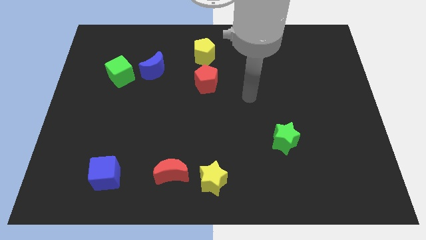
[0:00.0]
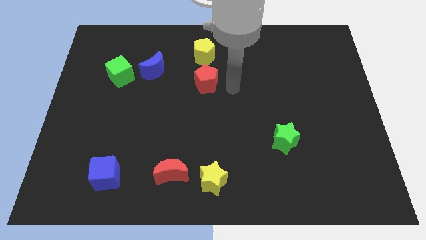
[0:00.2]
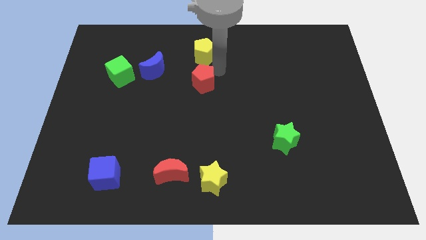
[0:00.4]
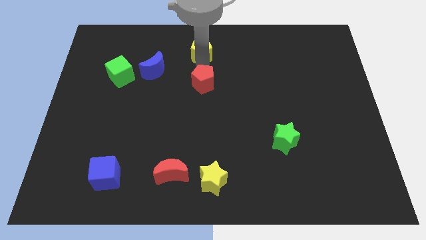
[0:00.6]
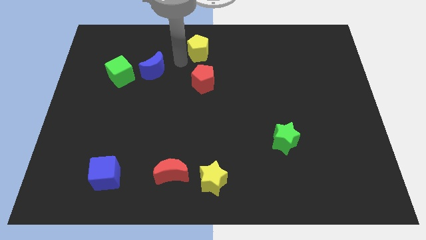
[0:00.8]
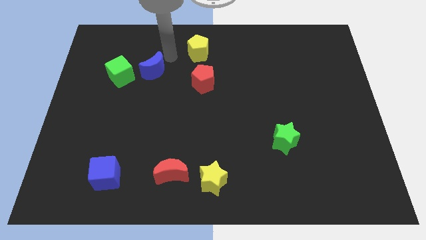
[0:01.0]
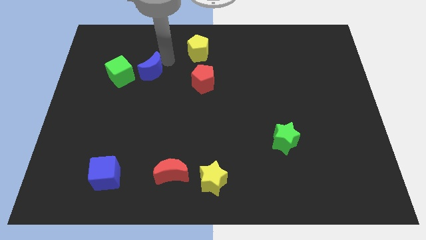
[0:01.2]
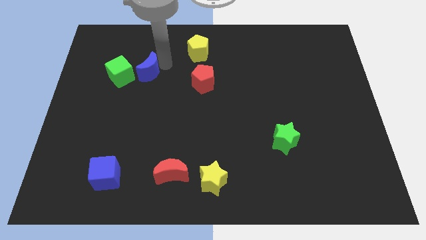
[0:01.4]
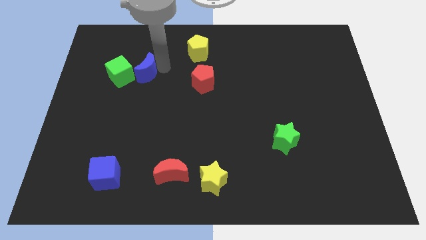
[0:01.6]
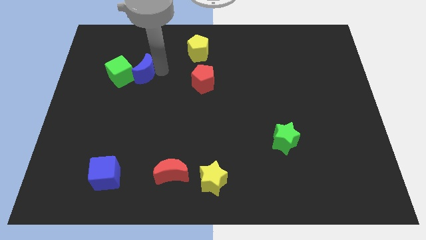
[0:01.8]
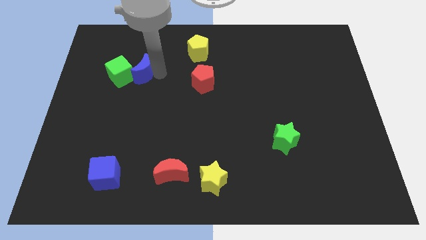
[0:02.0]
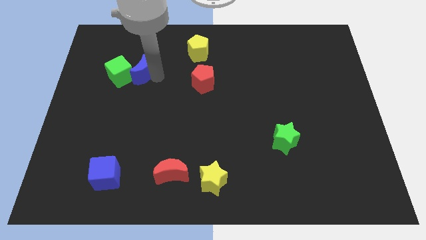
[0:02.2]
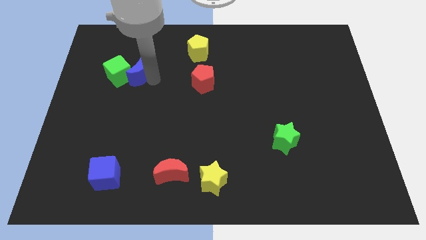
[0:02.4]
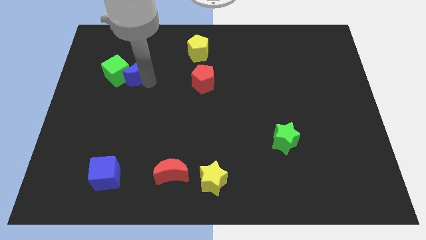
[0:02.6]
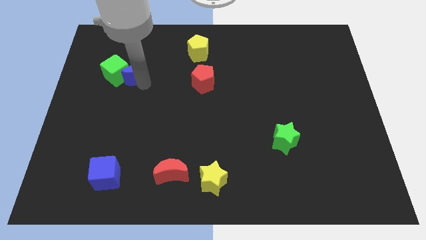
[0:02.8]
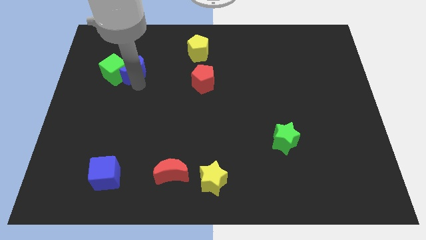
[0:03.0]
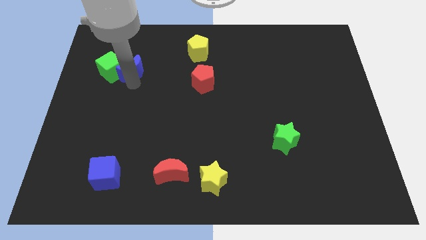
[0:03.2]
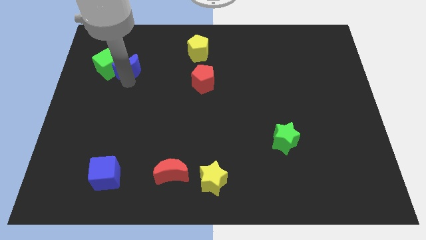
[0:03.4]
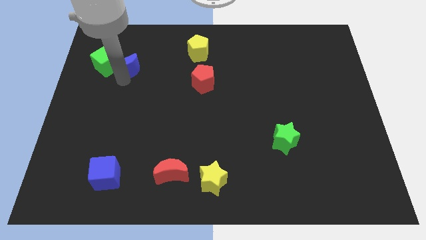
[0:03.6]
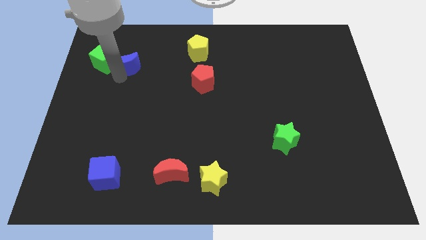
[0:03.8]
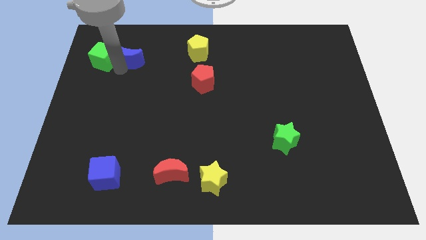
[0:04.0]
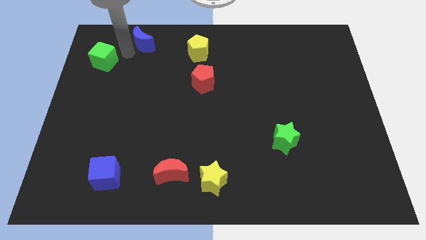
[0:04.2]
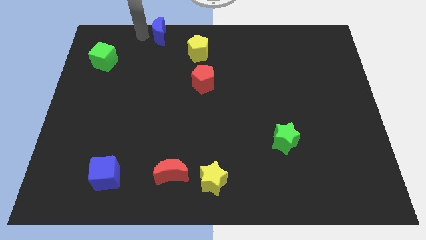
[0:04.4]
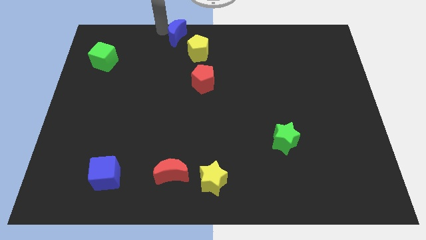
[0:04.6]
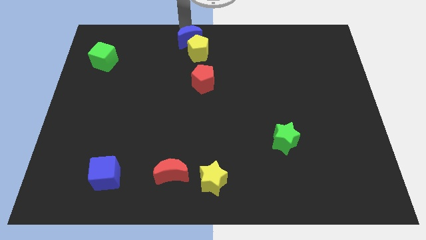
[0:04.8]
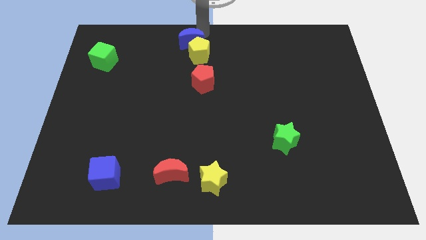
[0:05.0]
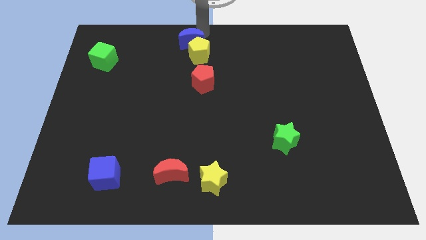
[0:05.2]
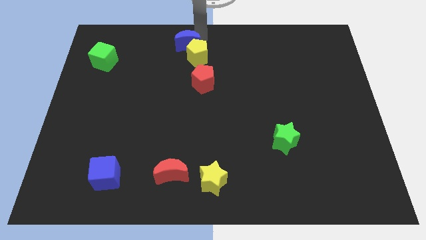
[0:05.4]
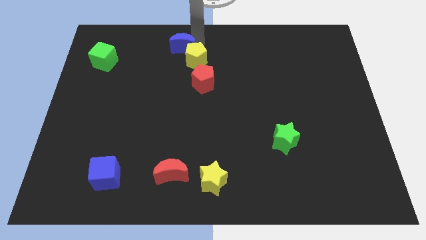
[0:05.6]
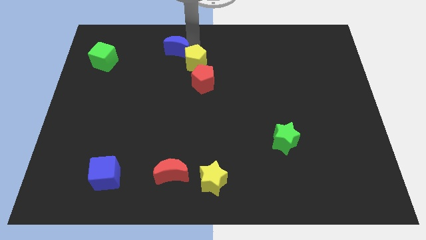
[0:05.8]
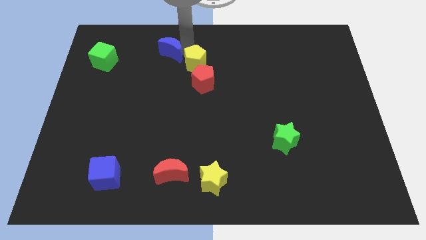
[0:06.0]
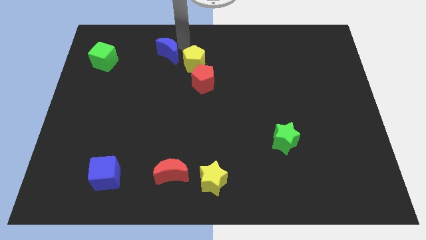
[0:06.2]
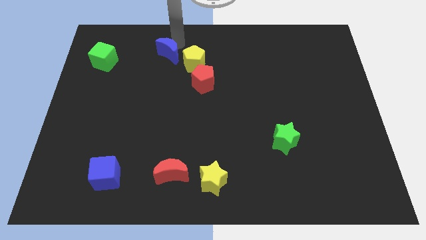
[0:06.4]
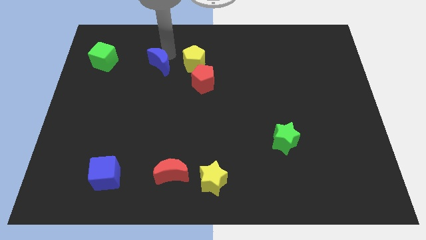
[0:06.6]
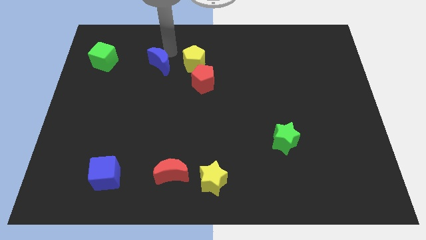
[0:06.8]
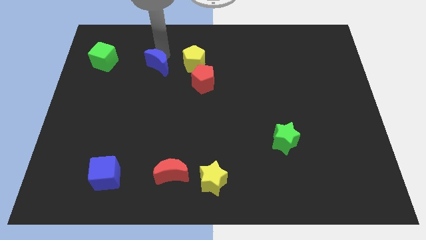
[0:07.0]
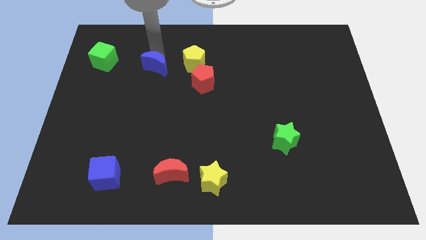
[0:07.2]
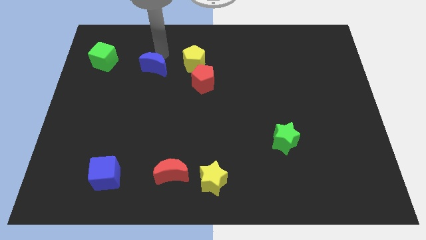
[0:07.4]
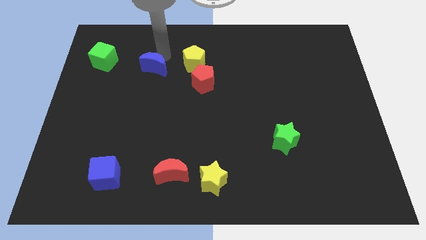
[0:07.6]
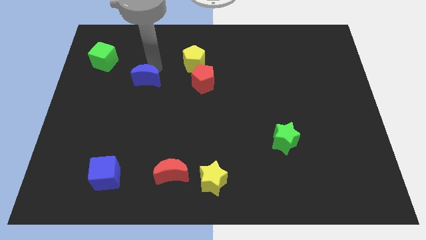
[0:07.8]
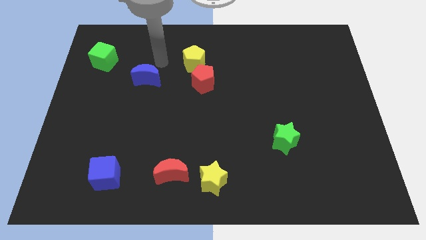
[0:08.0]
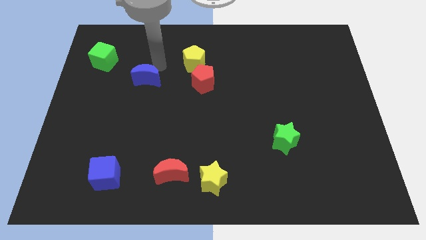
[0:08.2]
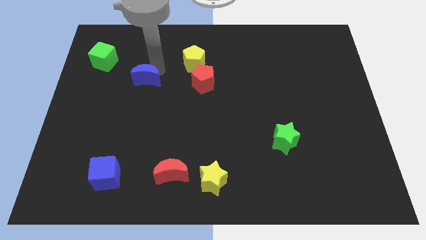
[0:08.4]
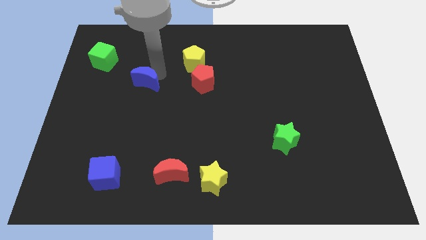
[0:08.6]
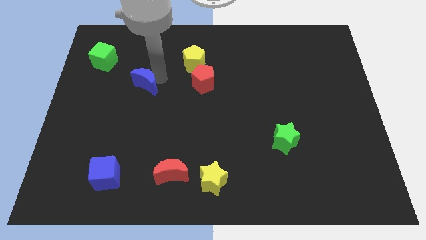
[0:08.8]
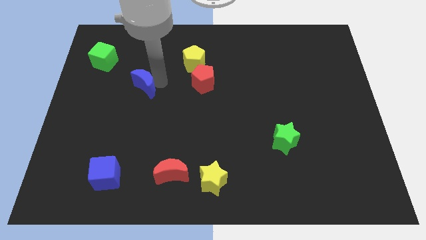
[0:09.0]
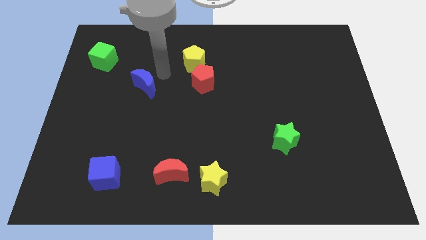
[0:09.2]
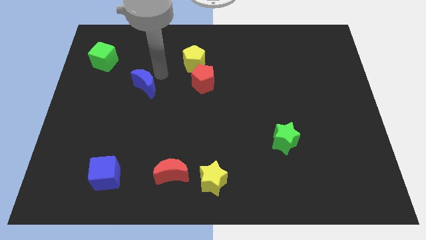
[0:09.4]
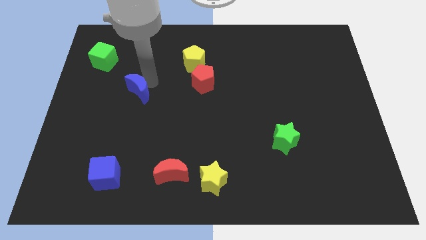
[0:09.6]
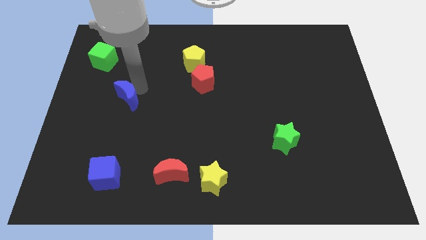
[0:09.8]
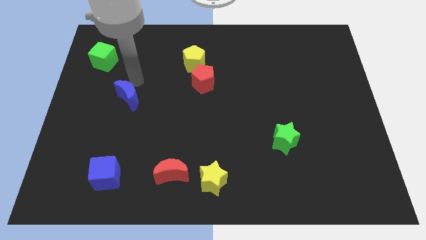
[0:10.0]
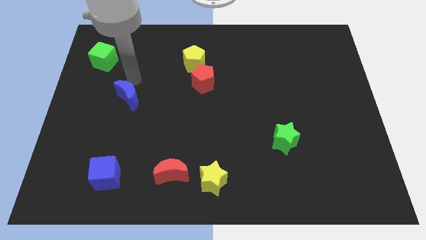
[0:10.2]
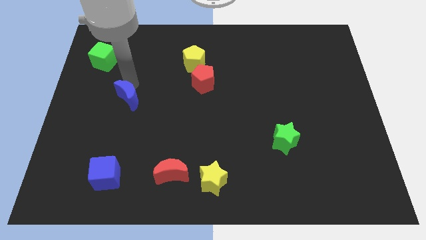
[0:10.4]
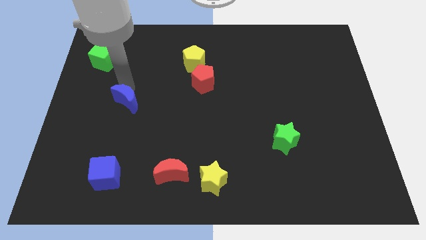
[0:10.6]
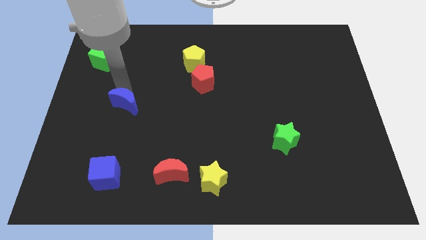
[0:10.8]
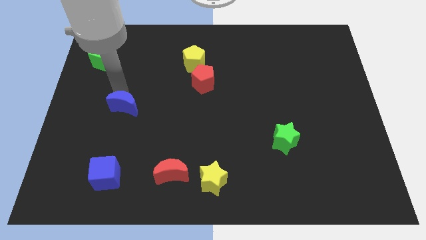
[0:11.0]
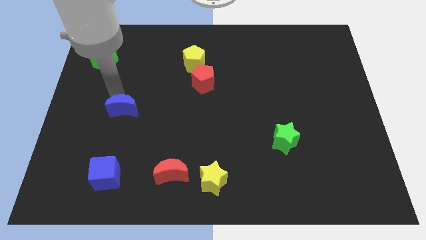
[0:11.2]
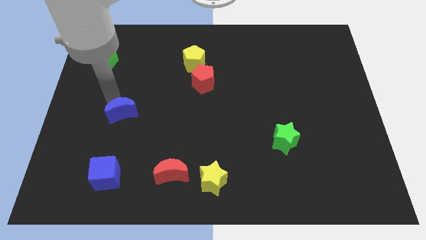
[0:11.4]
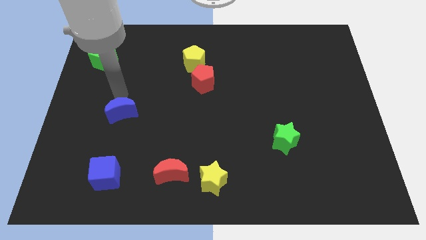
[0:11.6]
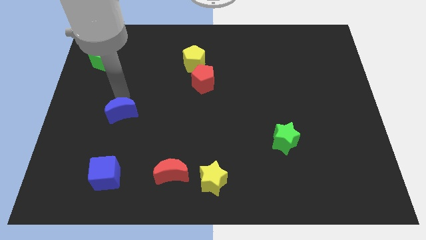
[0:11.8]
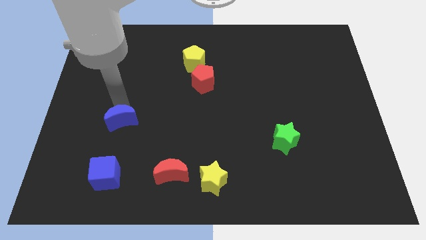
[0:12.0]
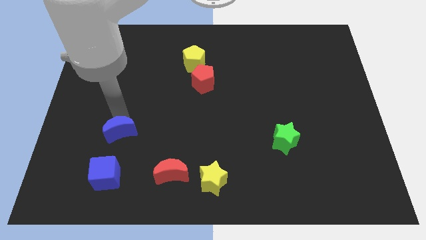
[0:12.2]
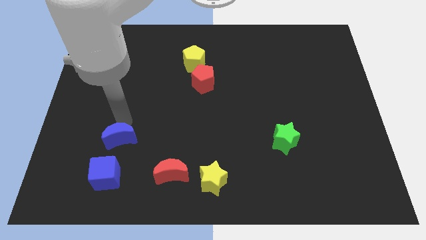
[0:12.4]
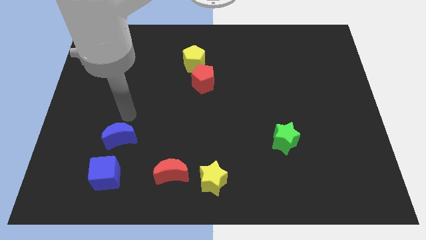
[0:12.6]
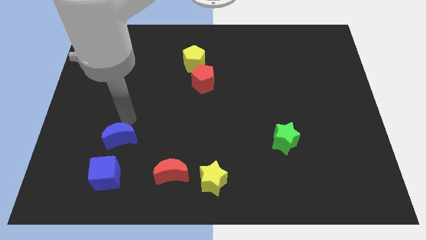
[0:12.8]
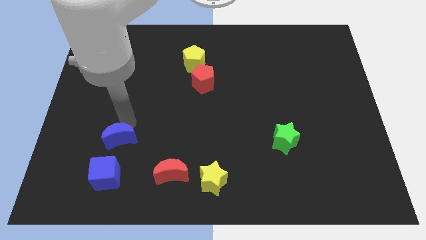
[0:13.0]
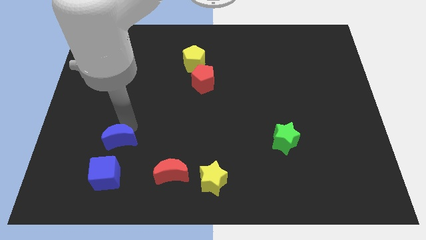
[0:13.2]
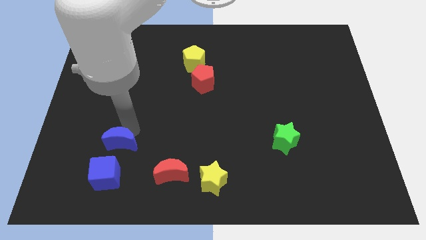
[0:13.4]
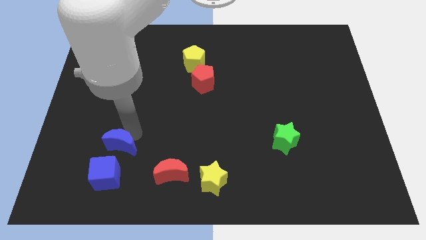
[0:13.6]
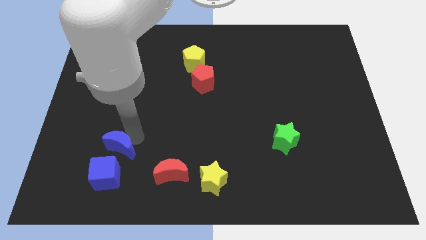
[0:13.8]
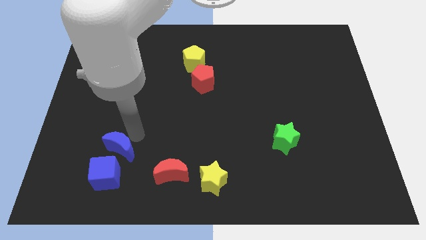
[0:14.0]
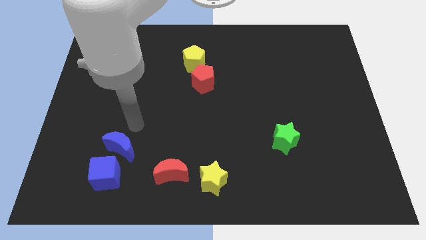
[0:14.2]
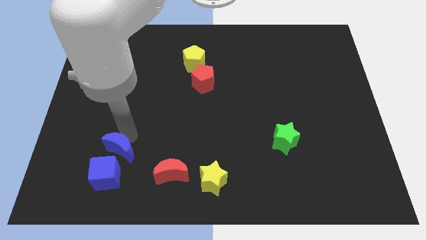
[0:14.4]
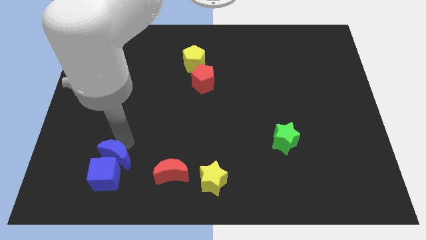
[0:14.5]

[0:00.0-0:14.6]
push the blue moon to the blue cube
